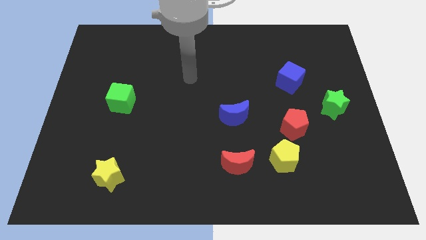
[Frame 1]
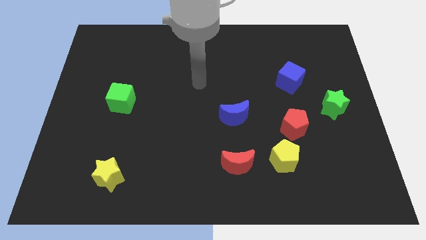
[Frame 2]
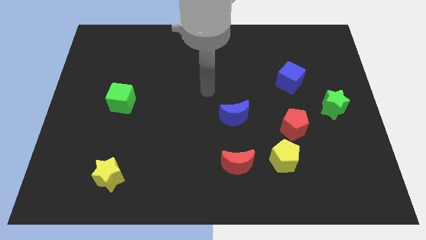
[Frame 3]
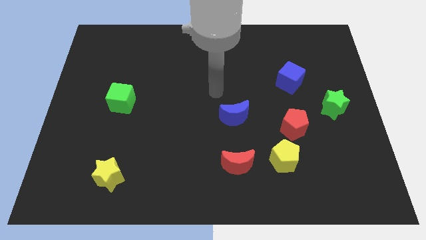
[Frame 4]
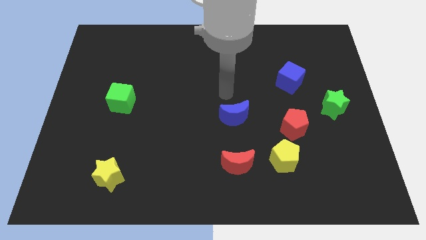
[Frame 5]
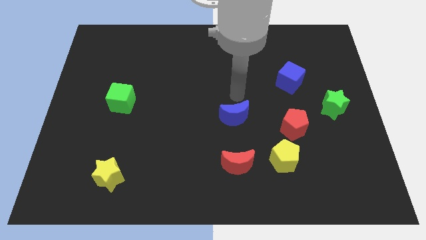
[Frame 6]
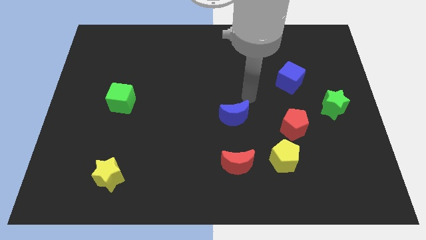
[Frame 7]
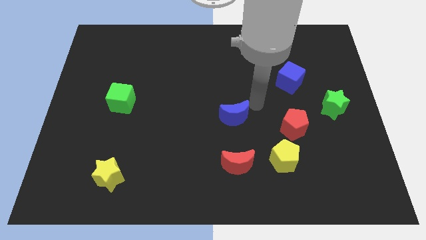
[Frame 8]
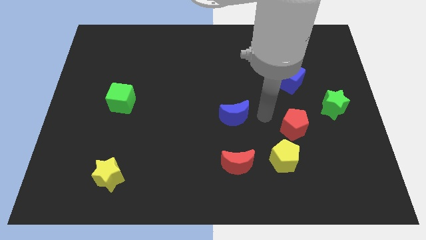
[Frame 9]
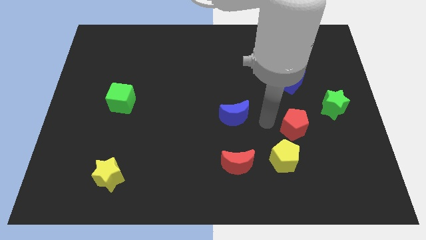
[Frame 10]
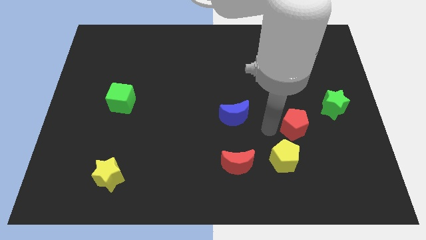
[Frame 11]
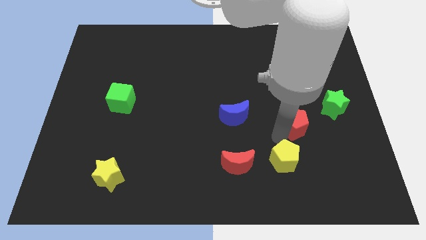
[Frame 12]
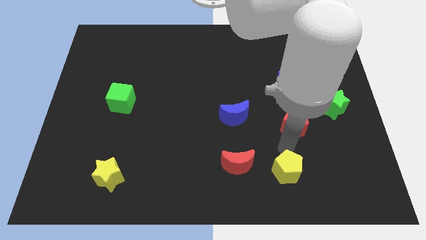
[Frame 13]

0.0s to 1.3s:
move the red pentagon away from the yellow pentagon

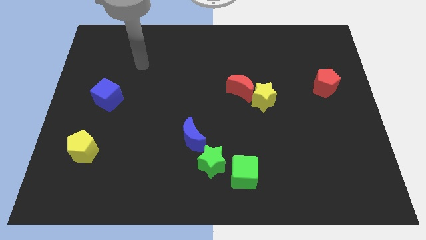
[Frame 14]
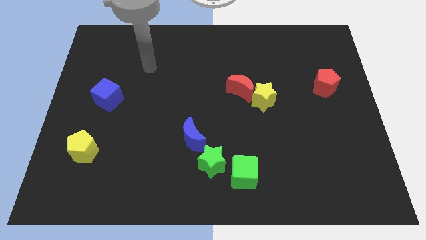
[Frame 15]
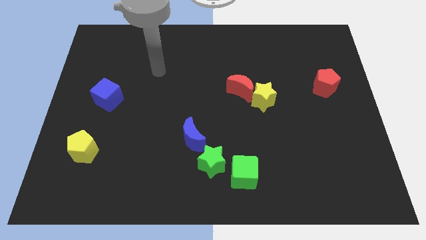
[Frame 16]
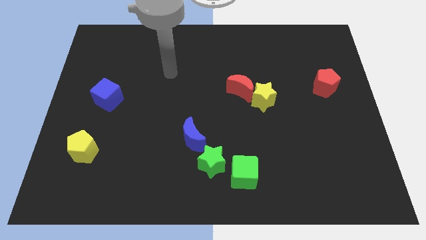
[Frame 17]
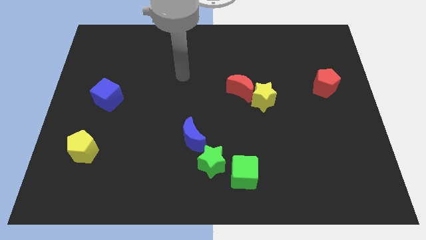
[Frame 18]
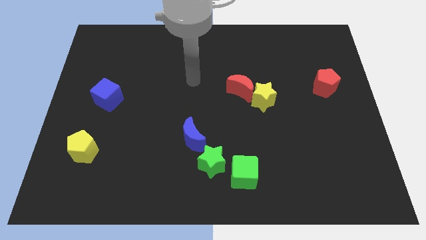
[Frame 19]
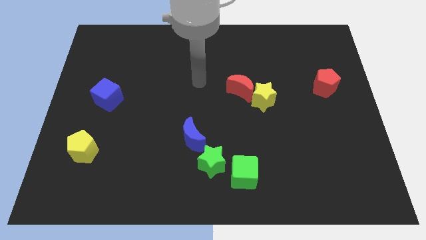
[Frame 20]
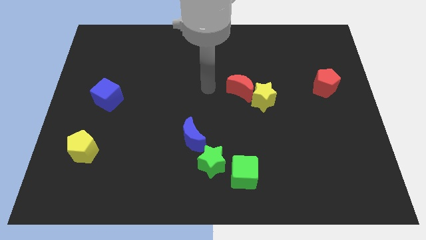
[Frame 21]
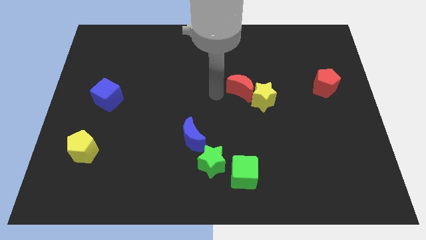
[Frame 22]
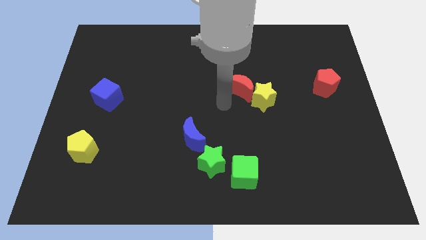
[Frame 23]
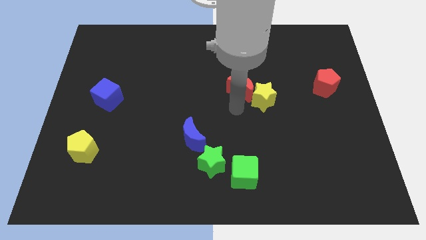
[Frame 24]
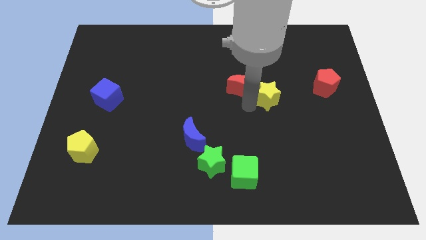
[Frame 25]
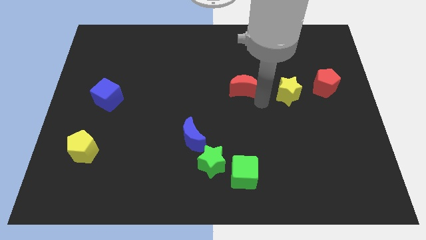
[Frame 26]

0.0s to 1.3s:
pull the red moon apart from the yellow star

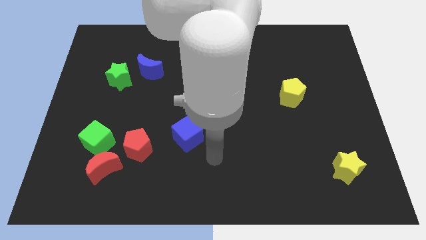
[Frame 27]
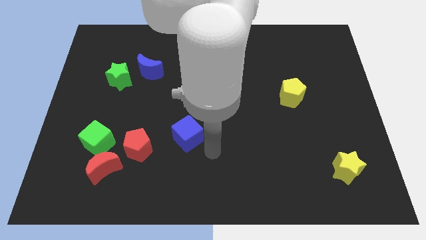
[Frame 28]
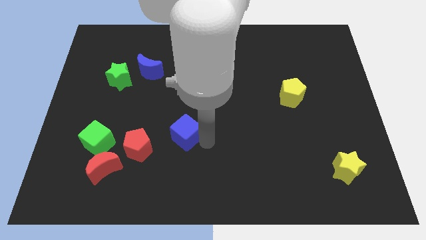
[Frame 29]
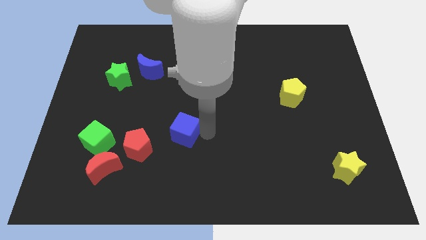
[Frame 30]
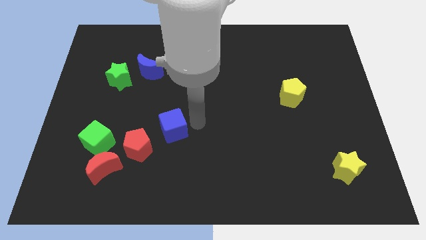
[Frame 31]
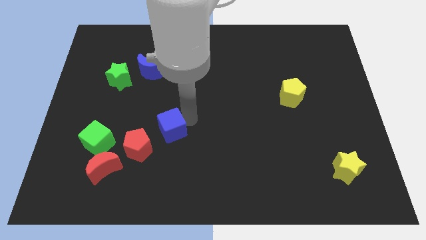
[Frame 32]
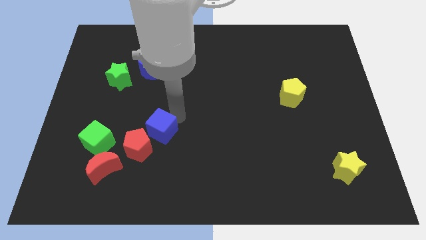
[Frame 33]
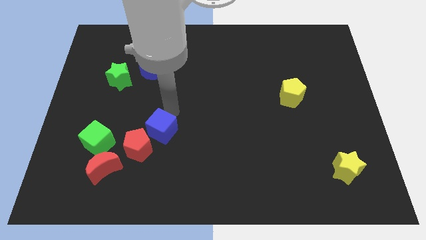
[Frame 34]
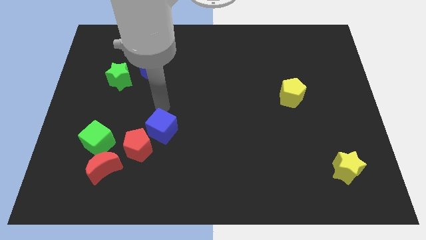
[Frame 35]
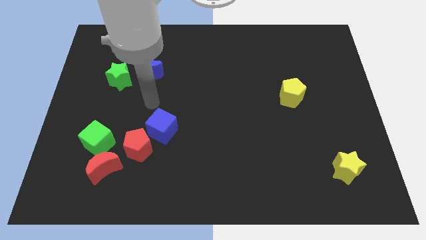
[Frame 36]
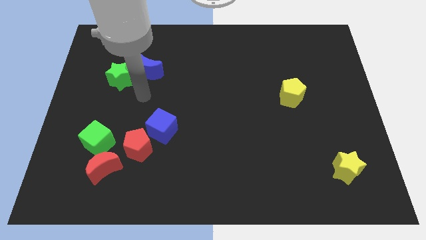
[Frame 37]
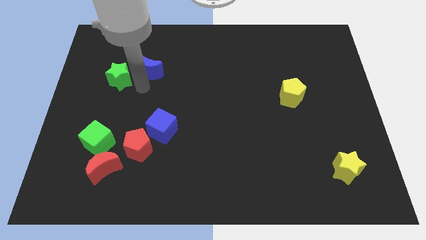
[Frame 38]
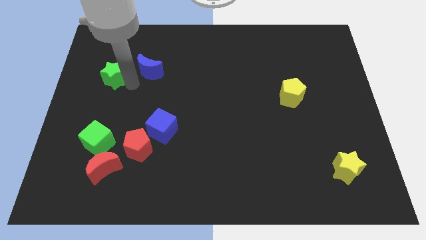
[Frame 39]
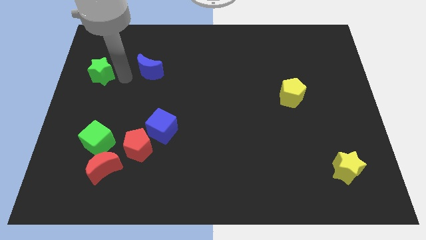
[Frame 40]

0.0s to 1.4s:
pull the blue moon apart from the green star

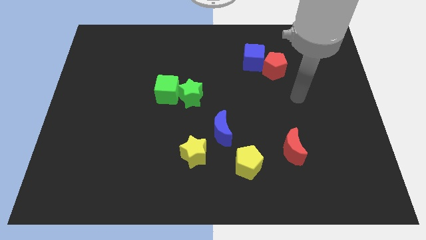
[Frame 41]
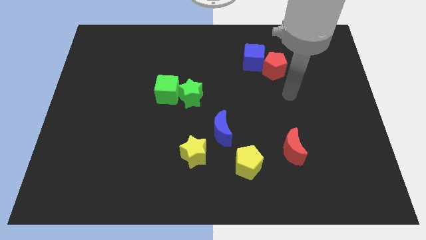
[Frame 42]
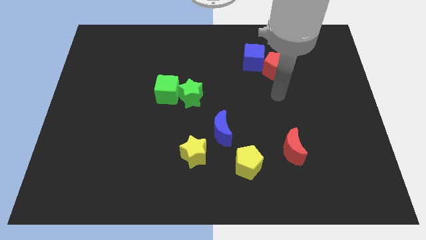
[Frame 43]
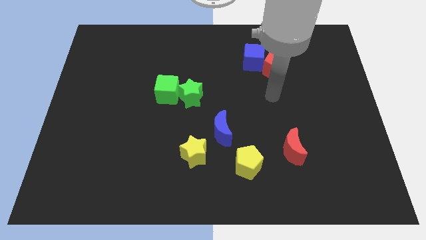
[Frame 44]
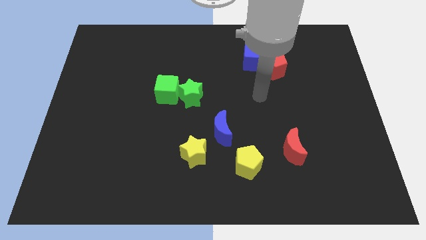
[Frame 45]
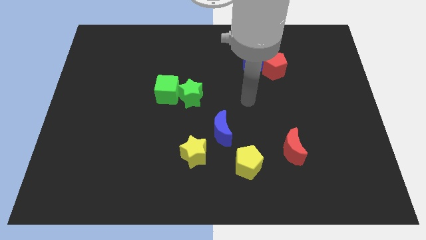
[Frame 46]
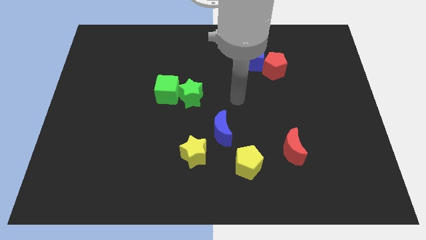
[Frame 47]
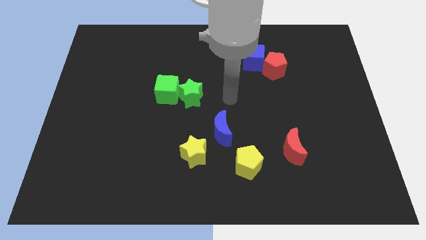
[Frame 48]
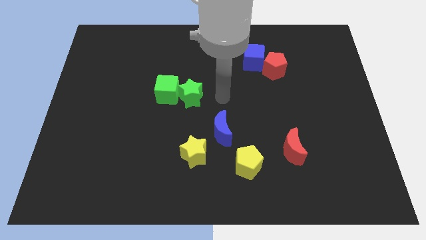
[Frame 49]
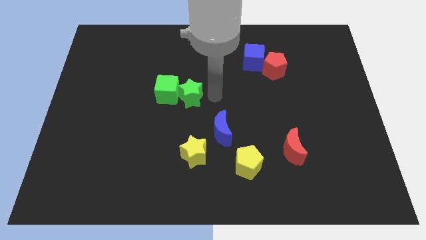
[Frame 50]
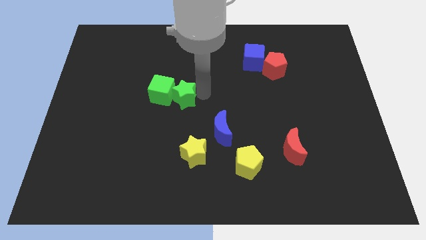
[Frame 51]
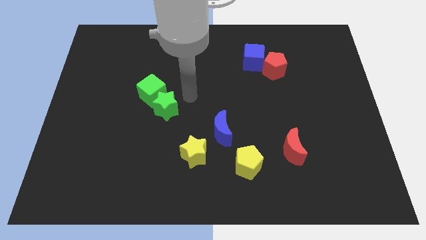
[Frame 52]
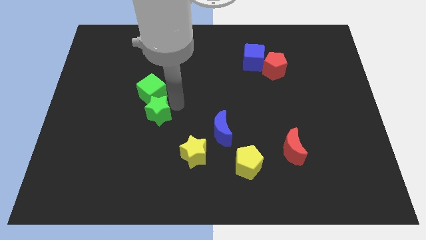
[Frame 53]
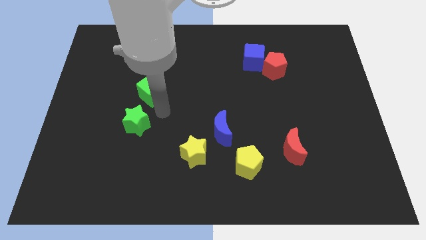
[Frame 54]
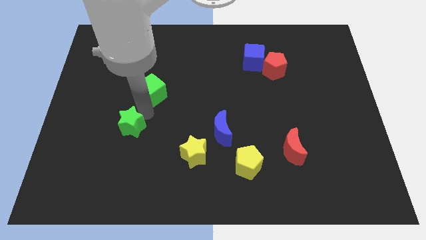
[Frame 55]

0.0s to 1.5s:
pull the green cube apart from the green star

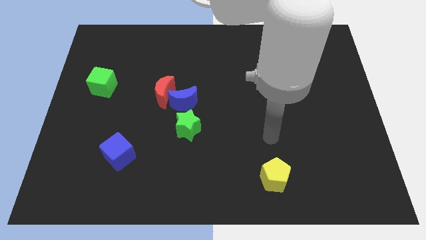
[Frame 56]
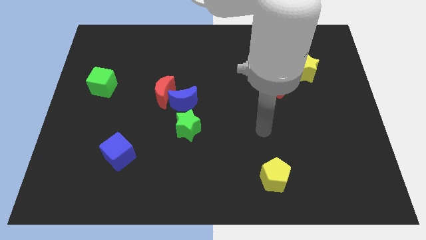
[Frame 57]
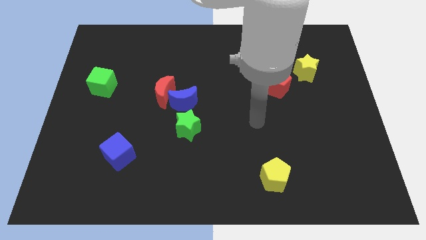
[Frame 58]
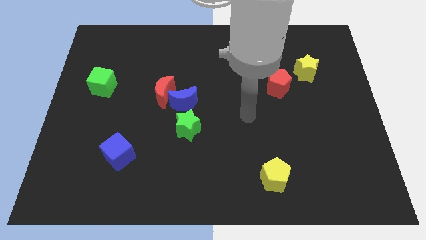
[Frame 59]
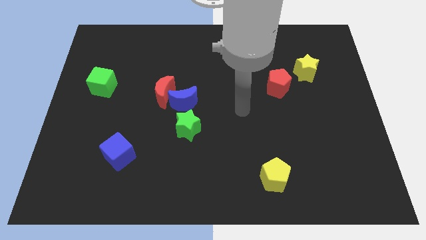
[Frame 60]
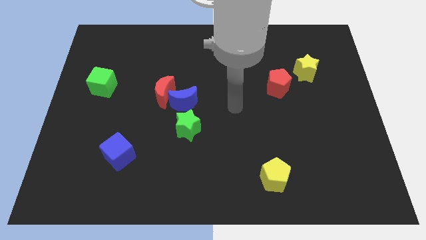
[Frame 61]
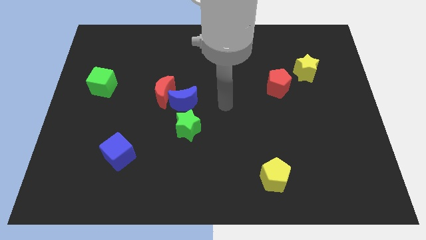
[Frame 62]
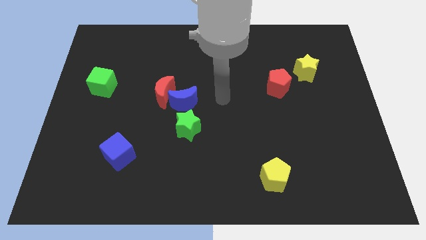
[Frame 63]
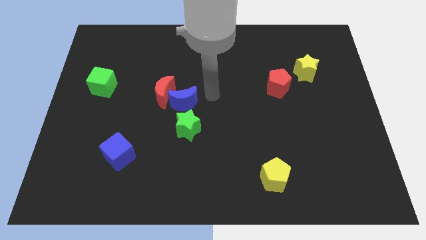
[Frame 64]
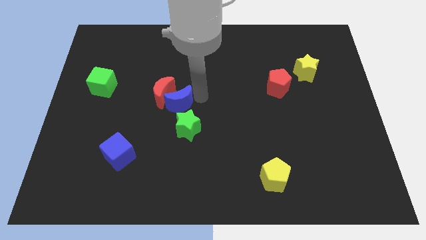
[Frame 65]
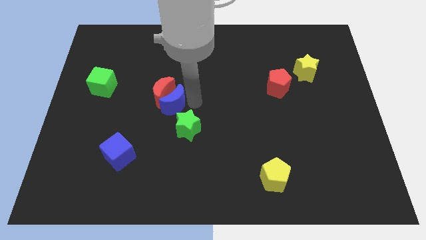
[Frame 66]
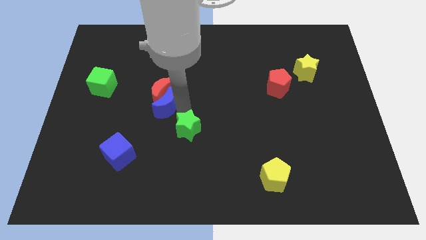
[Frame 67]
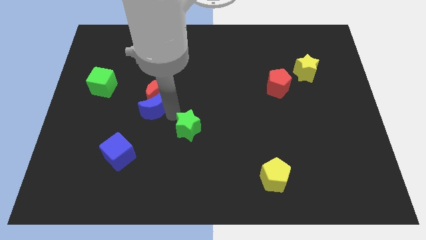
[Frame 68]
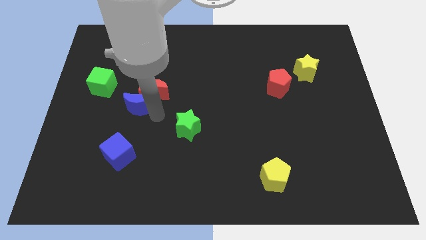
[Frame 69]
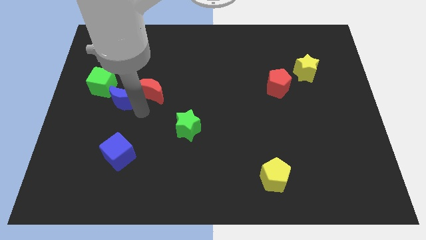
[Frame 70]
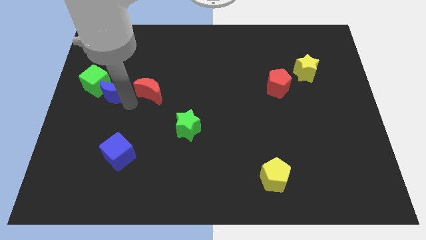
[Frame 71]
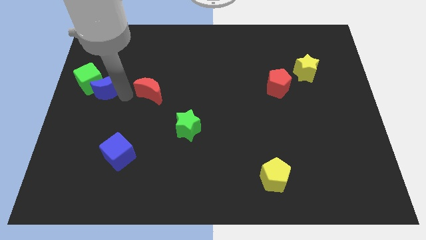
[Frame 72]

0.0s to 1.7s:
pull the red moon apart from the blue moon

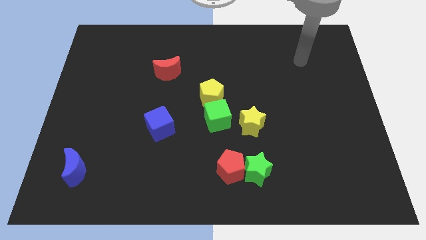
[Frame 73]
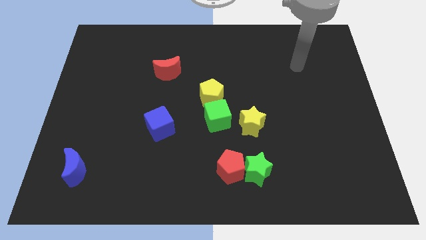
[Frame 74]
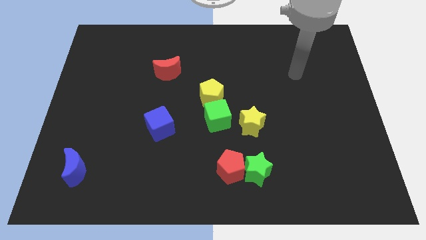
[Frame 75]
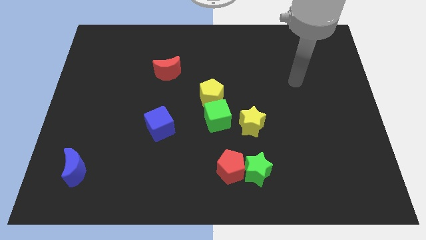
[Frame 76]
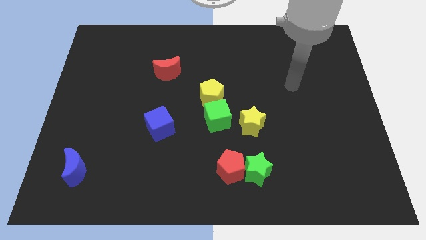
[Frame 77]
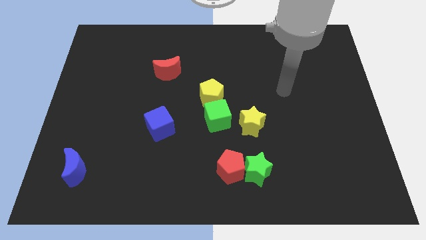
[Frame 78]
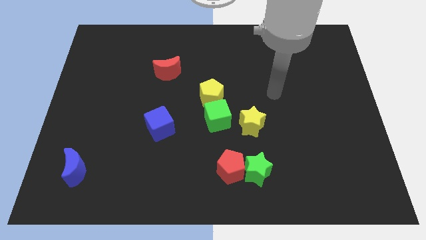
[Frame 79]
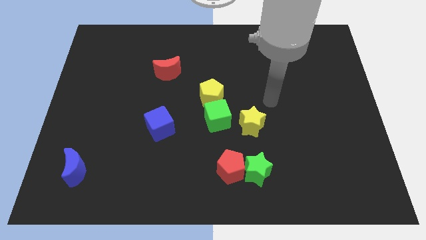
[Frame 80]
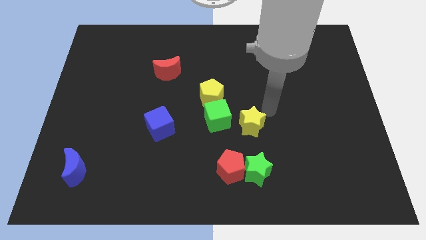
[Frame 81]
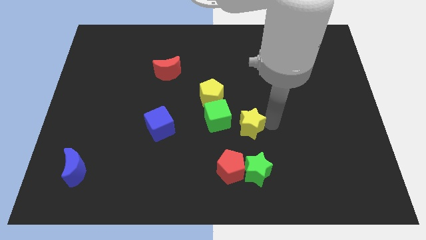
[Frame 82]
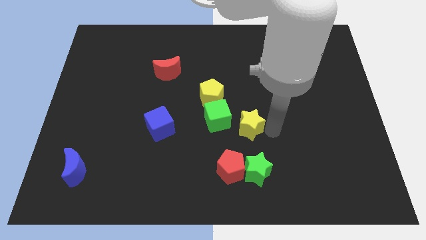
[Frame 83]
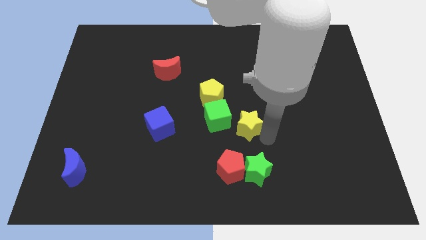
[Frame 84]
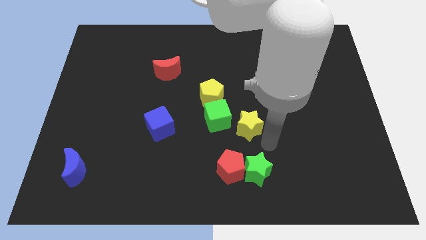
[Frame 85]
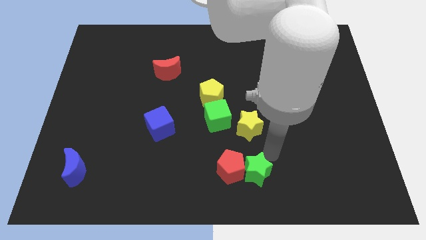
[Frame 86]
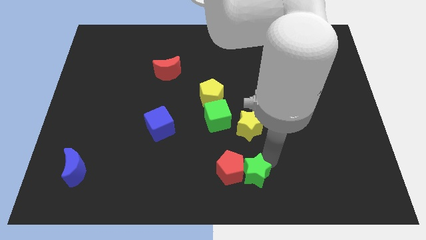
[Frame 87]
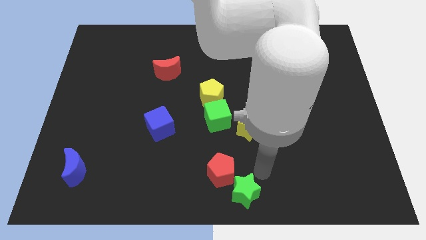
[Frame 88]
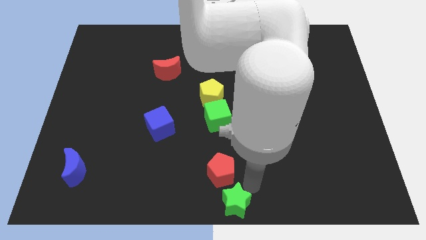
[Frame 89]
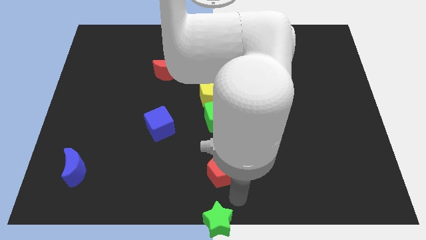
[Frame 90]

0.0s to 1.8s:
separate the red pentagon from the green star

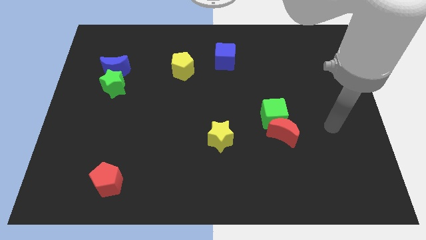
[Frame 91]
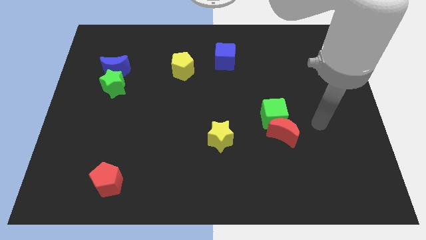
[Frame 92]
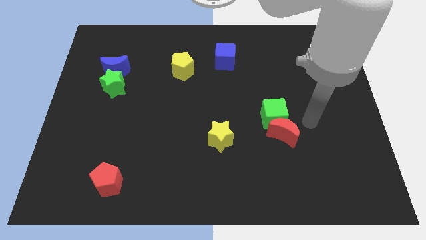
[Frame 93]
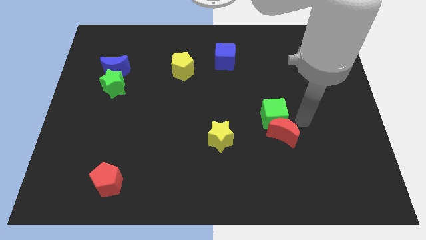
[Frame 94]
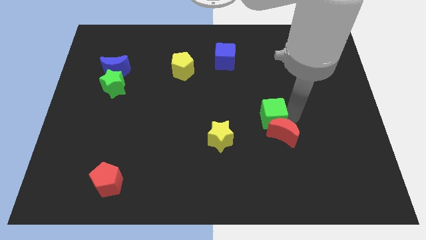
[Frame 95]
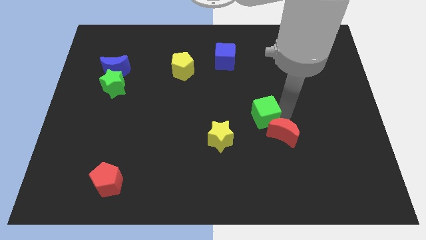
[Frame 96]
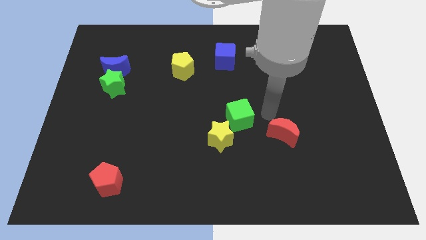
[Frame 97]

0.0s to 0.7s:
pull the red moon apart from the green cube
